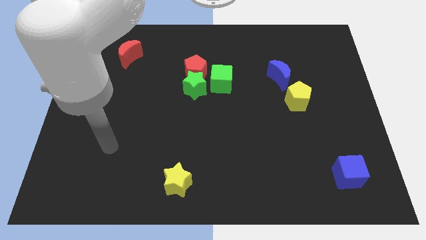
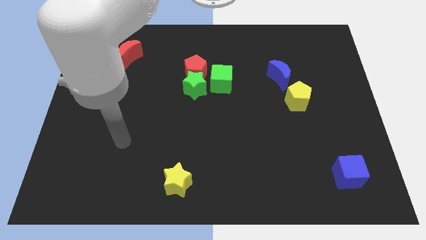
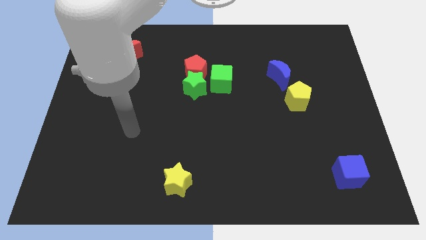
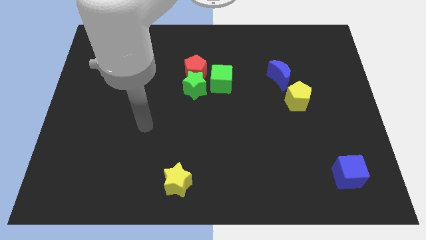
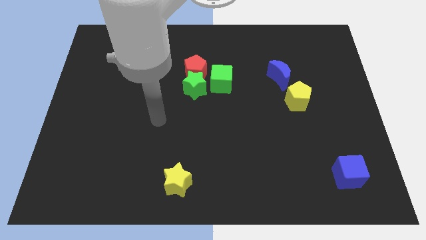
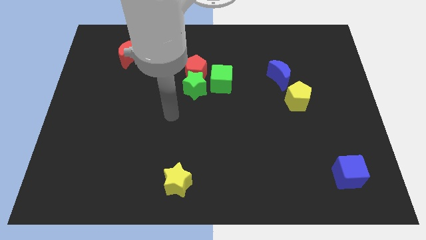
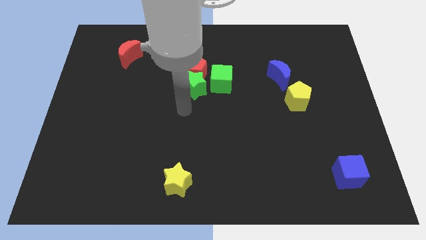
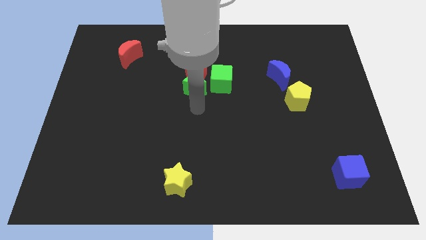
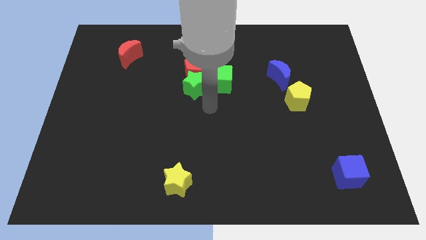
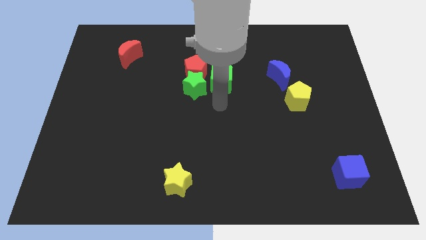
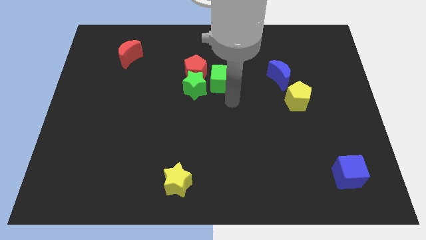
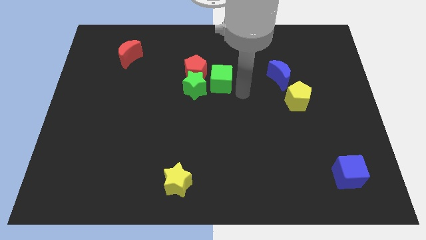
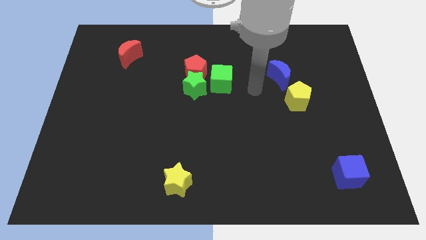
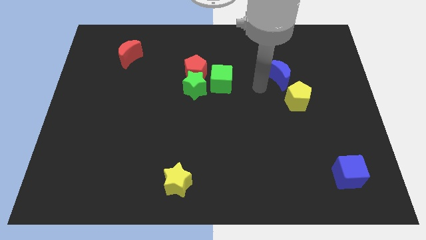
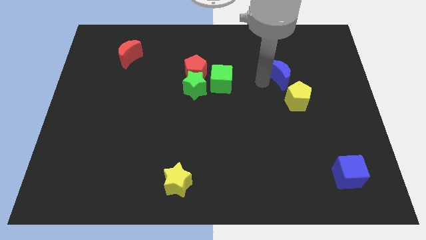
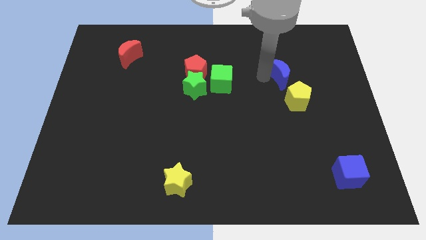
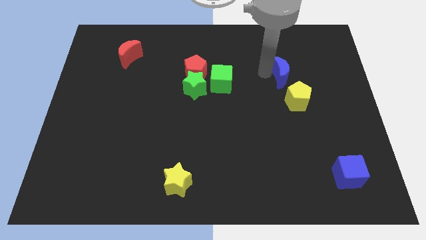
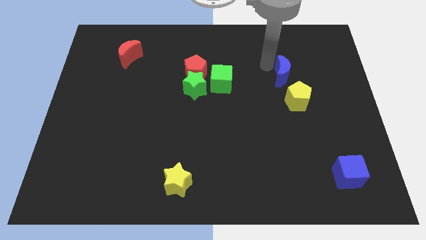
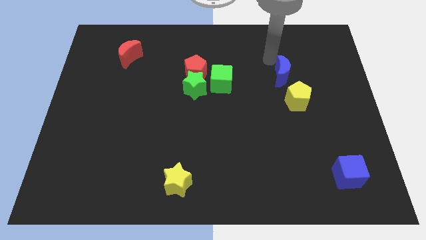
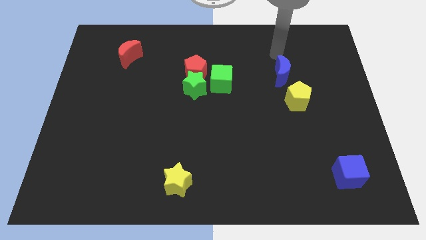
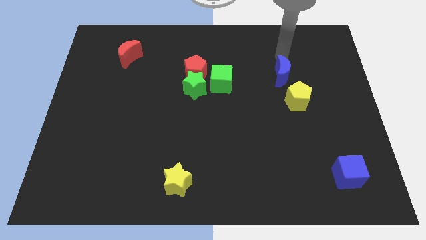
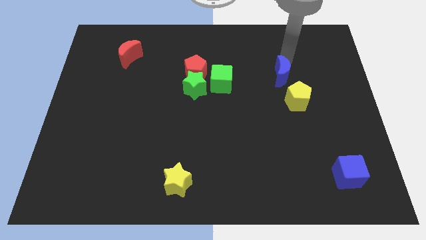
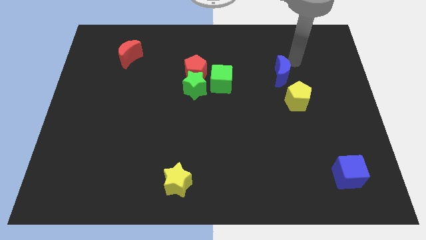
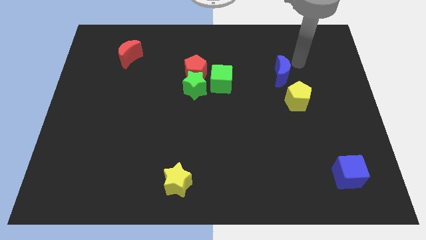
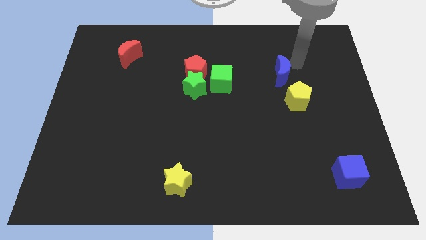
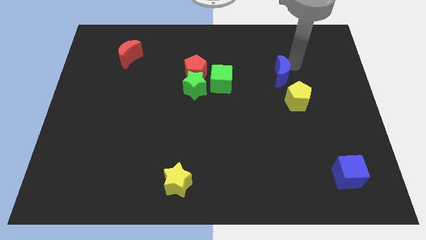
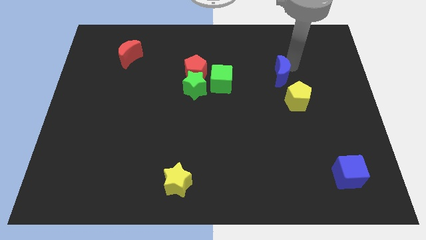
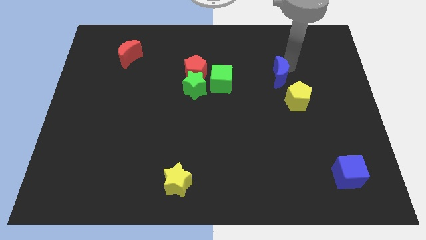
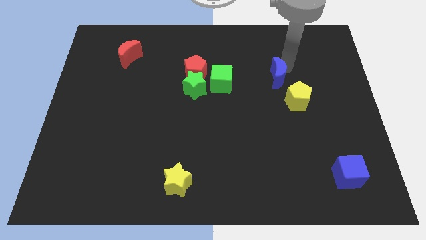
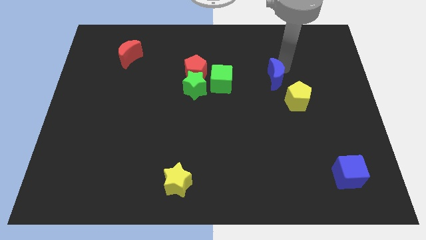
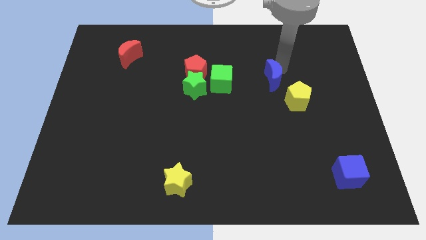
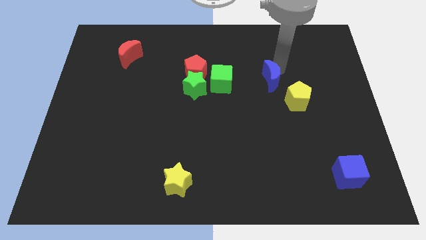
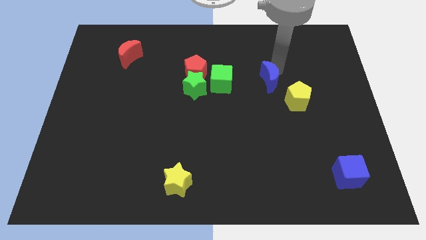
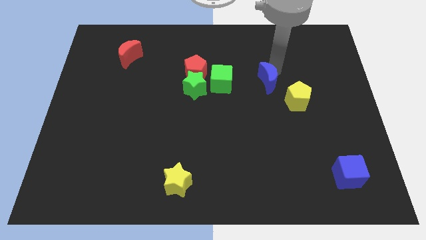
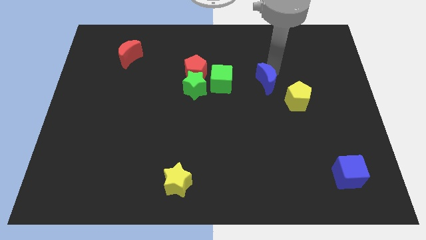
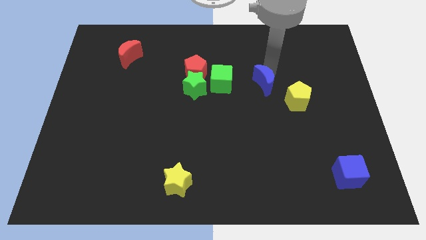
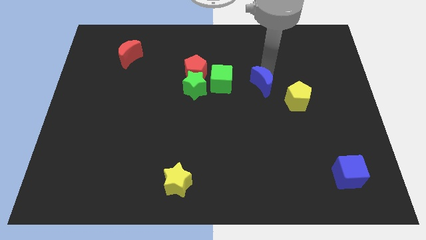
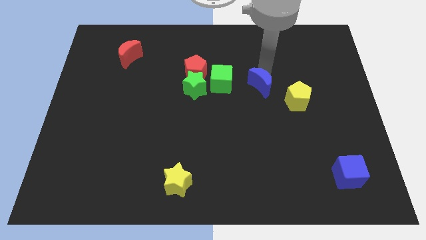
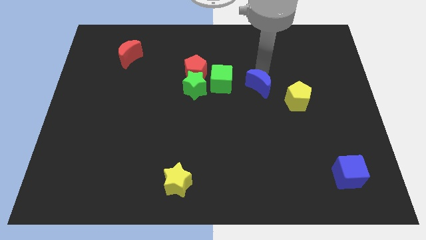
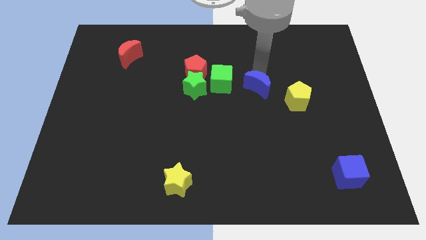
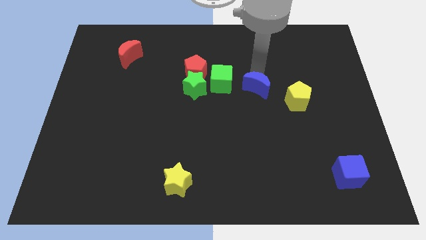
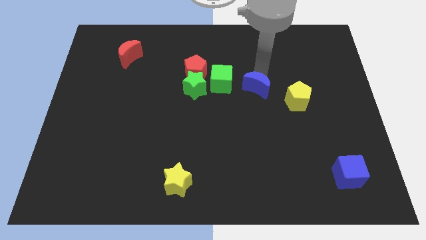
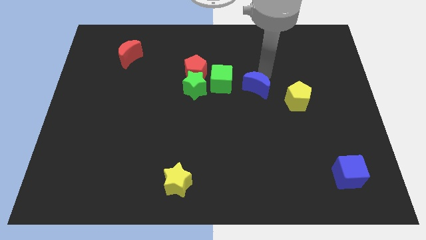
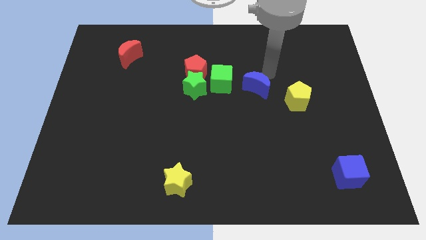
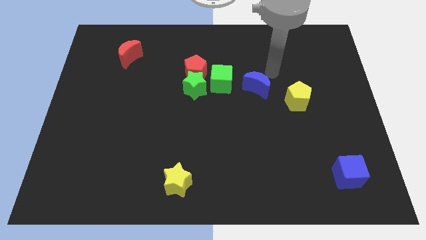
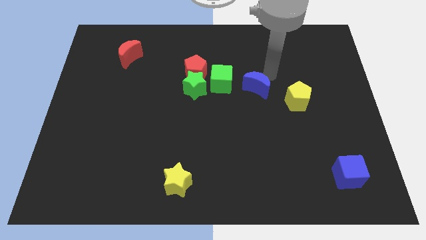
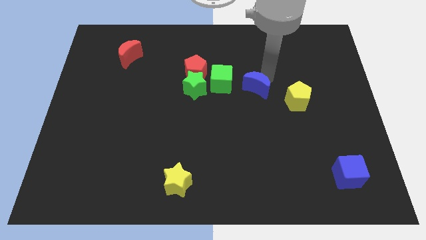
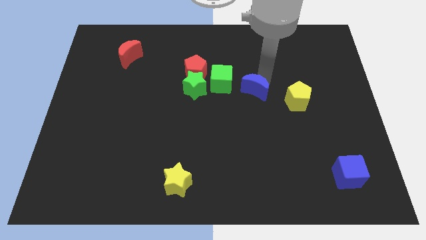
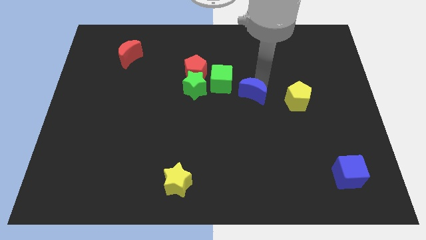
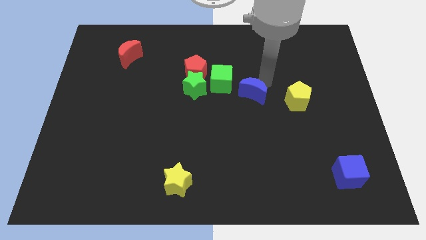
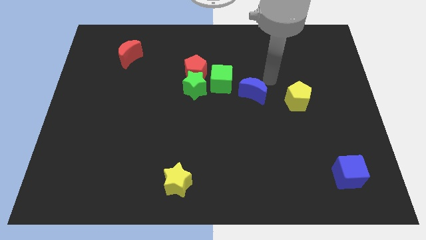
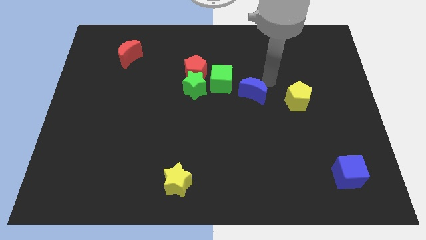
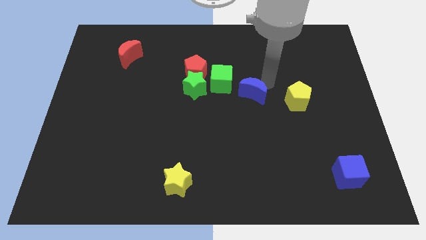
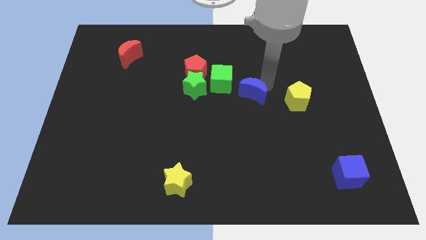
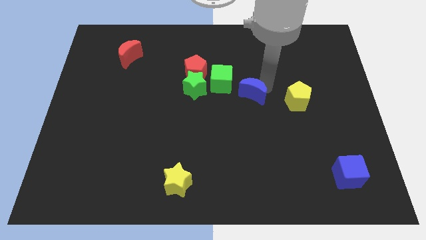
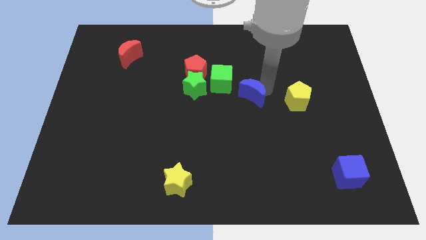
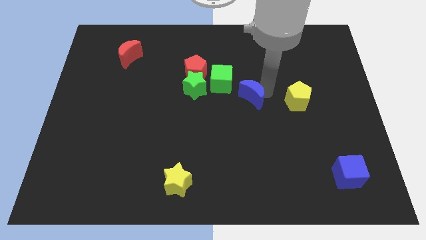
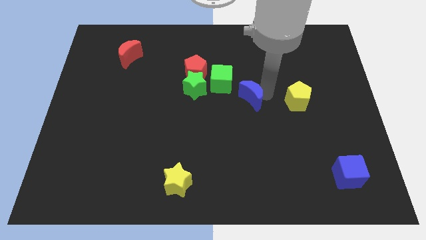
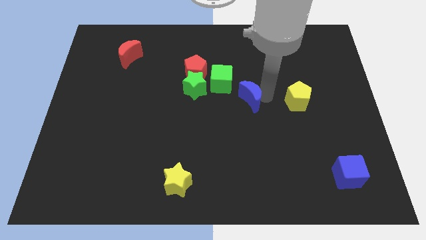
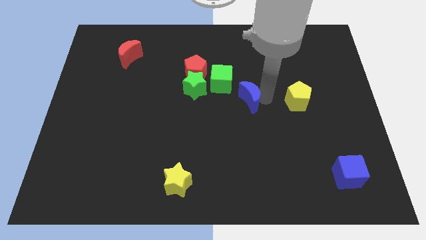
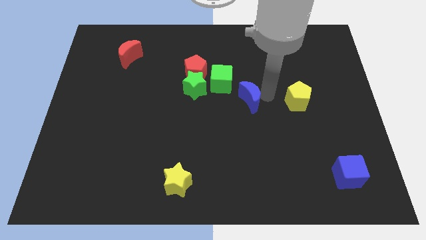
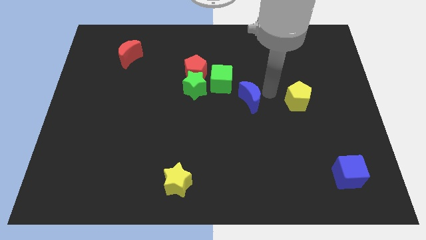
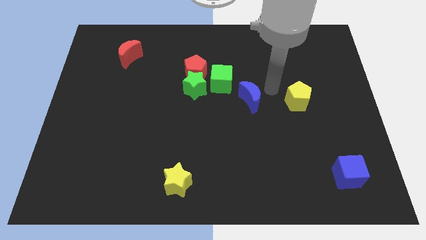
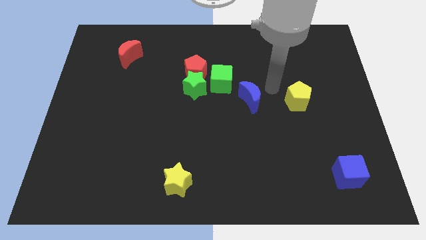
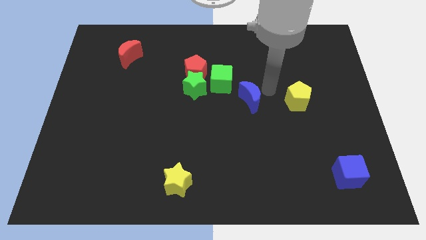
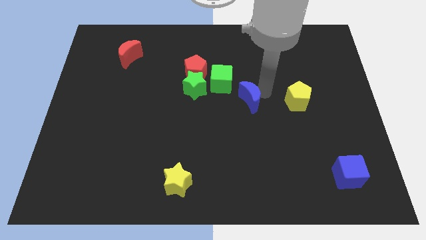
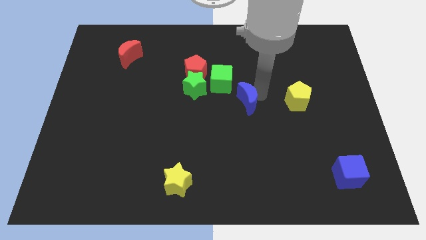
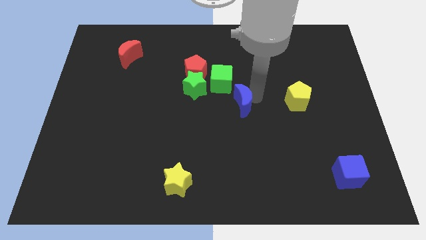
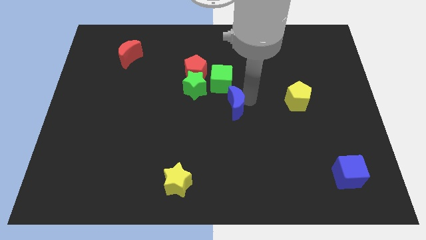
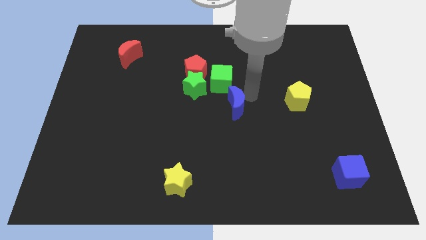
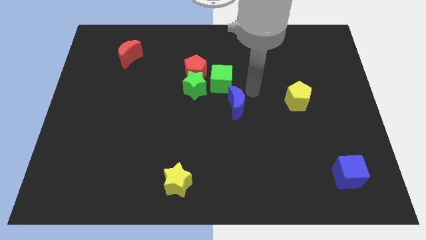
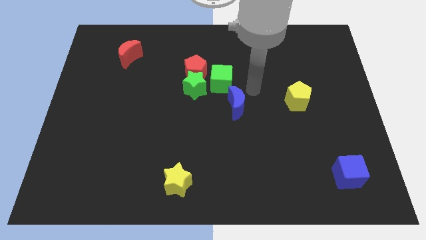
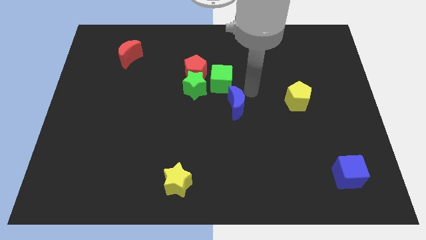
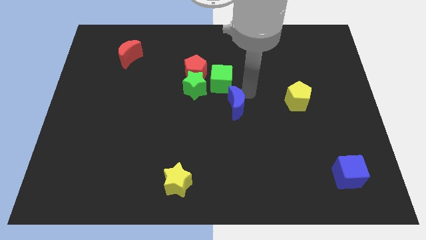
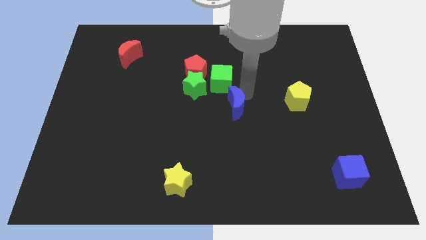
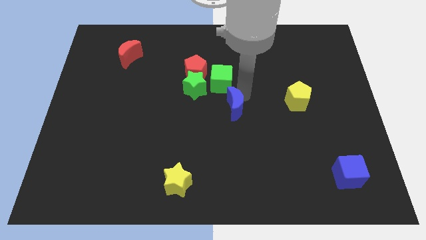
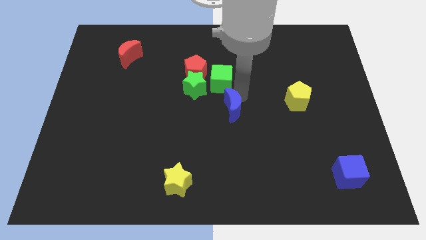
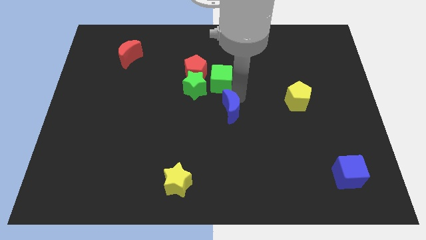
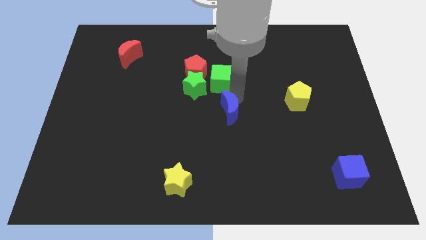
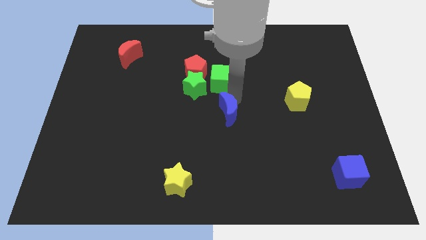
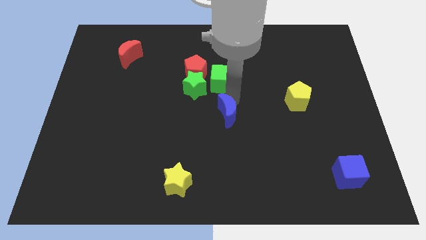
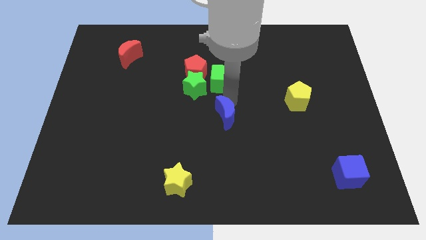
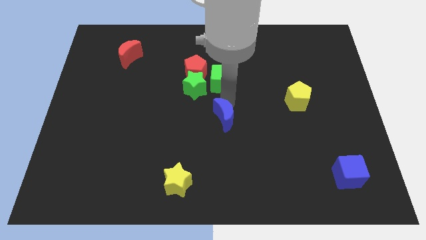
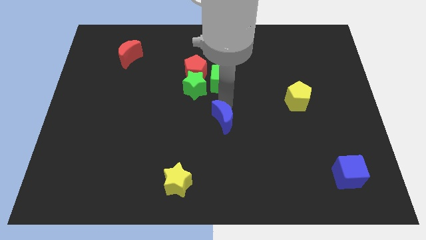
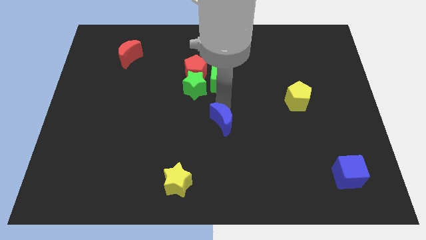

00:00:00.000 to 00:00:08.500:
slide the blue moon down and then left
